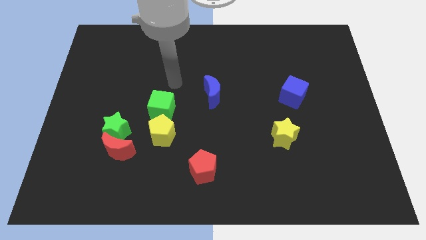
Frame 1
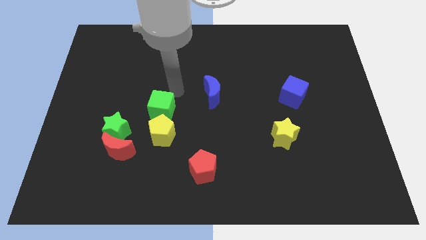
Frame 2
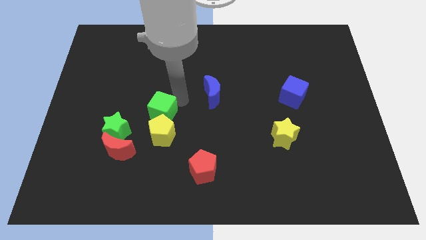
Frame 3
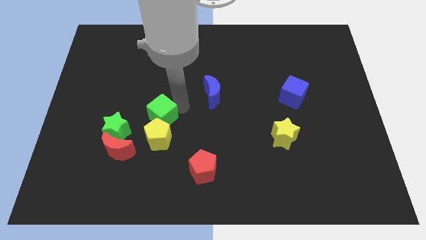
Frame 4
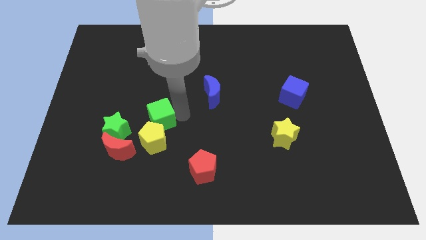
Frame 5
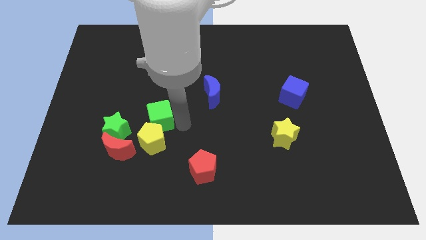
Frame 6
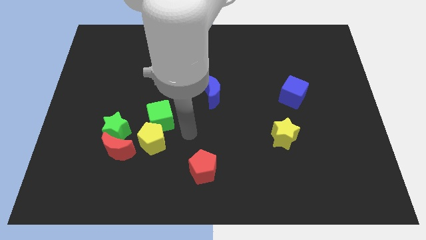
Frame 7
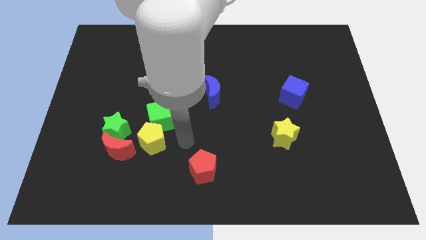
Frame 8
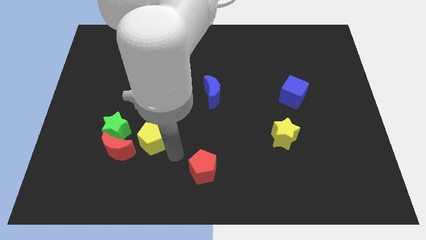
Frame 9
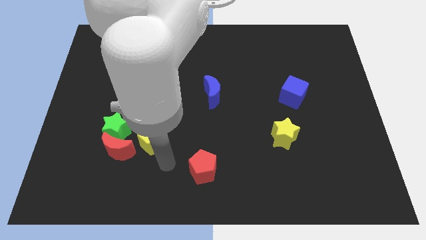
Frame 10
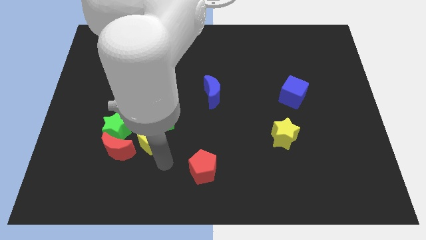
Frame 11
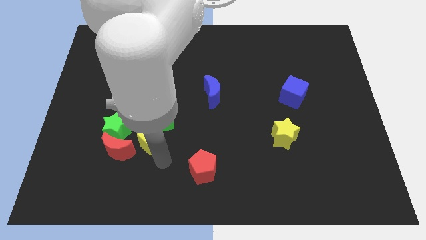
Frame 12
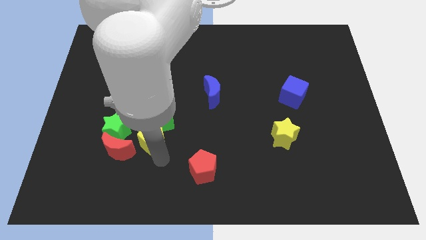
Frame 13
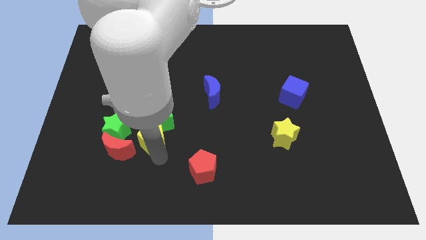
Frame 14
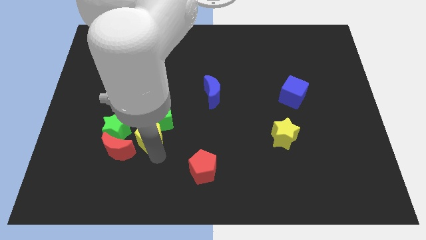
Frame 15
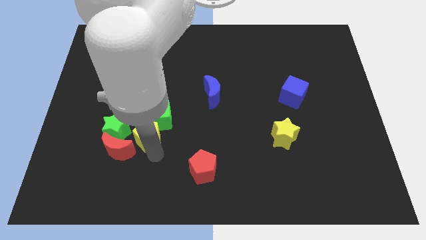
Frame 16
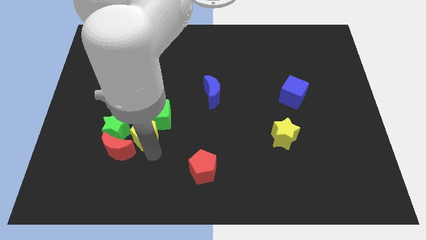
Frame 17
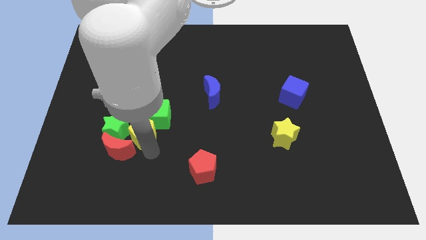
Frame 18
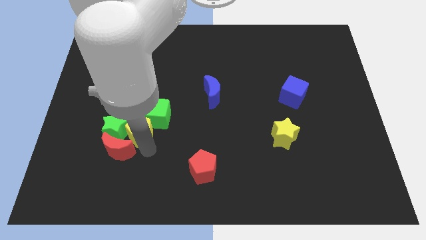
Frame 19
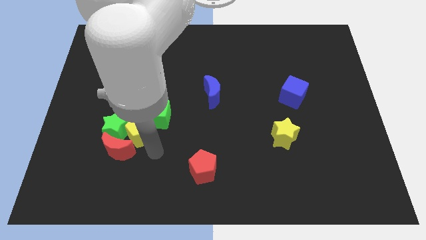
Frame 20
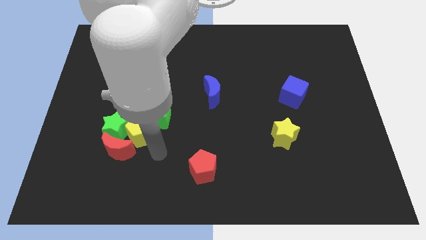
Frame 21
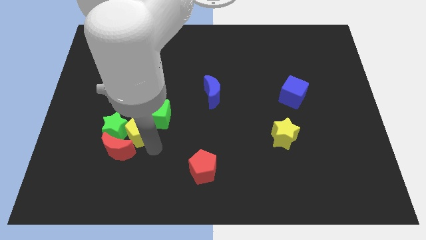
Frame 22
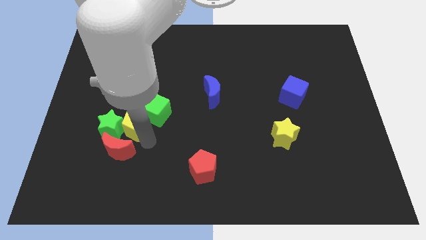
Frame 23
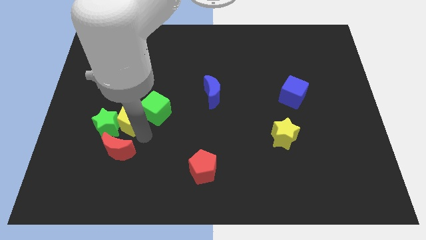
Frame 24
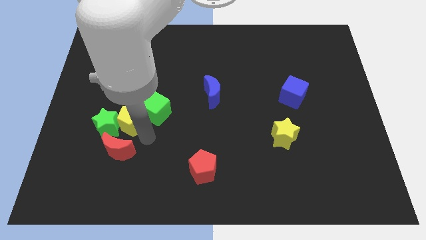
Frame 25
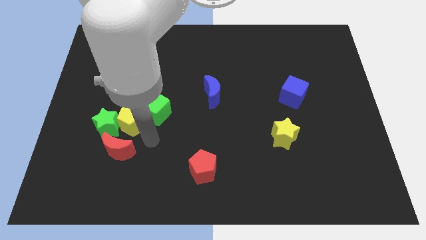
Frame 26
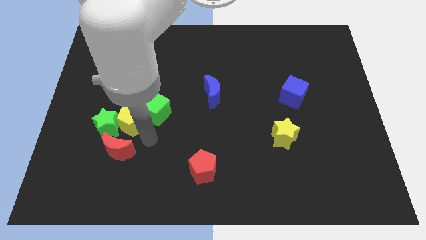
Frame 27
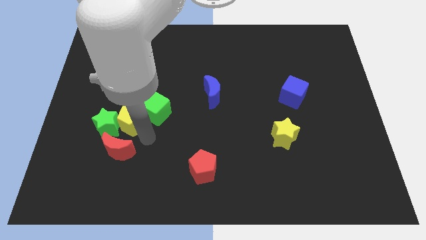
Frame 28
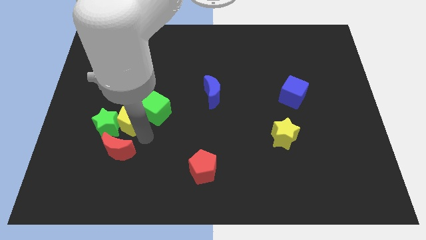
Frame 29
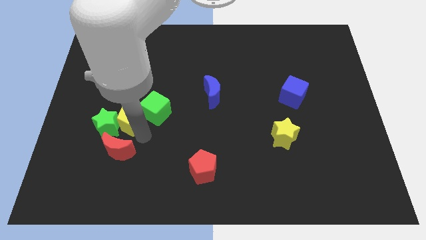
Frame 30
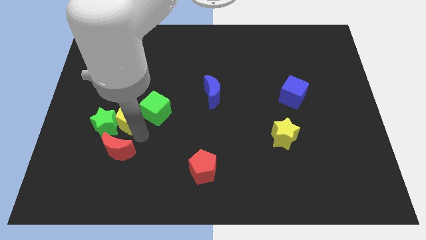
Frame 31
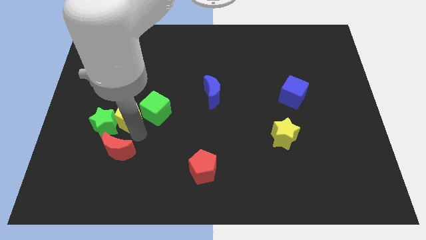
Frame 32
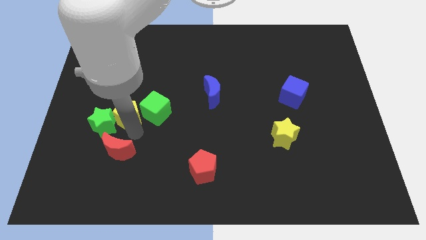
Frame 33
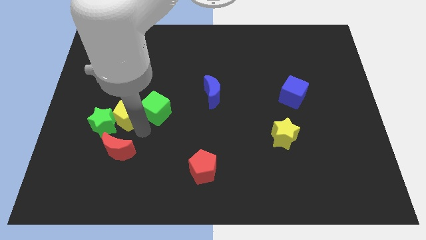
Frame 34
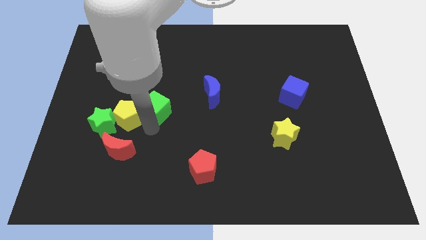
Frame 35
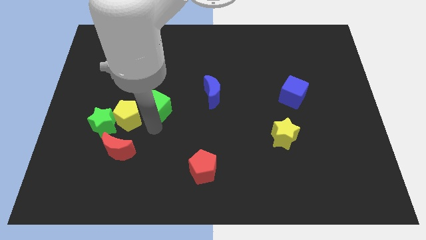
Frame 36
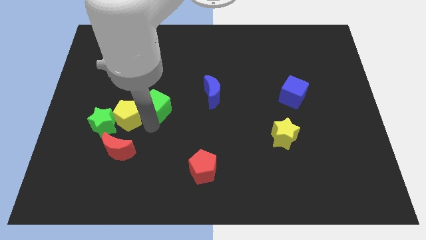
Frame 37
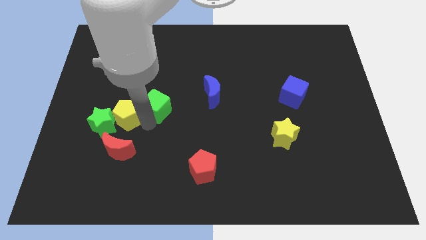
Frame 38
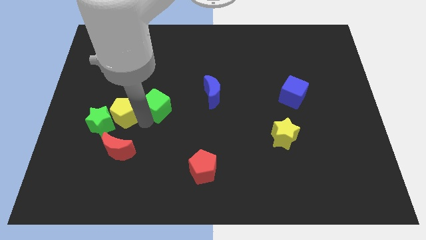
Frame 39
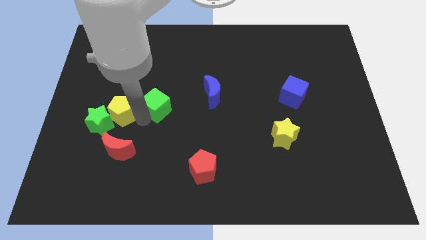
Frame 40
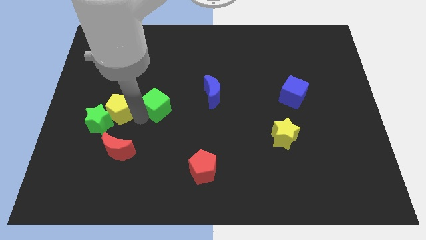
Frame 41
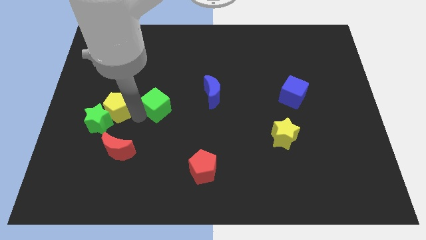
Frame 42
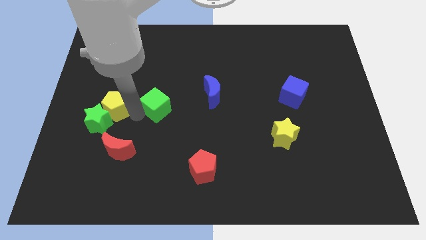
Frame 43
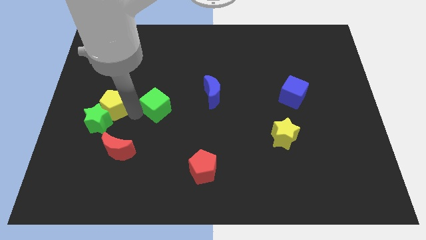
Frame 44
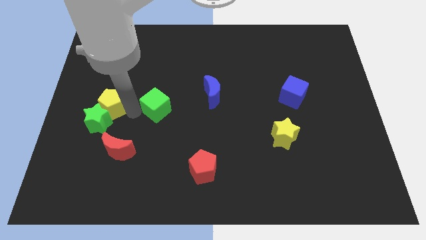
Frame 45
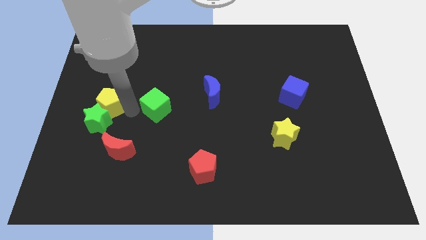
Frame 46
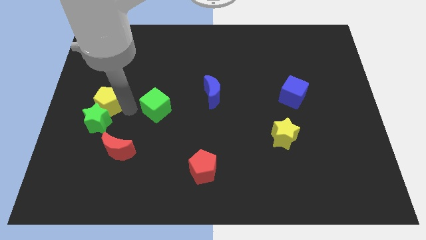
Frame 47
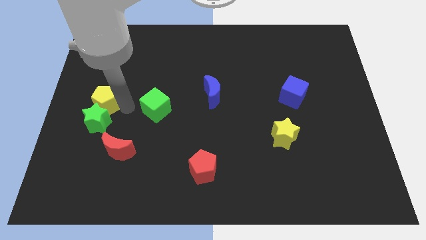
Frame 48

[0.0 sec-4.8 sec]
move the yellow pentagon to the center left

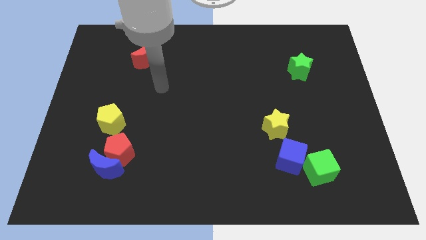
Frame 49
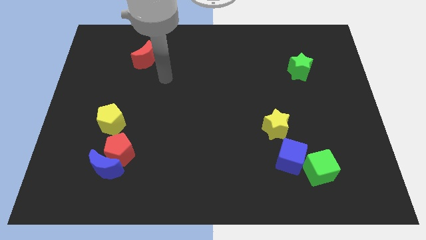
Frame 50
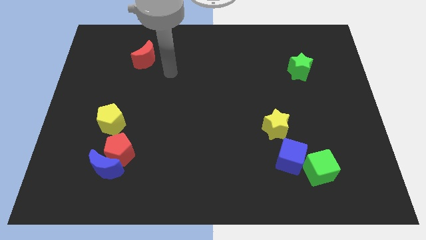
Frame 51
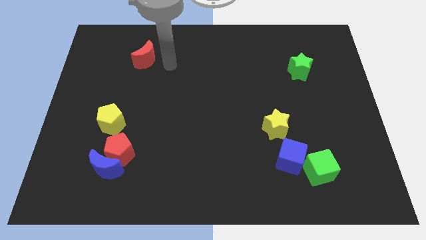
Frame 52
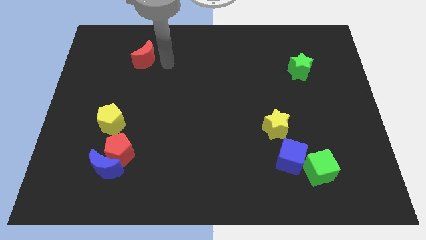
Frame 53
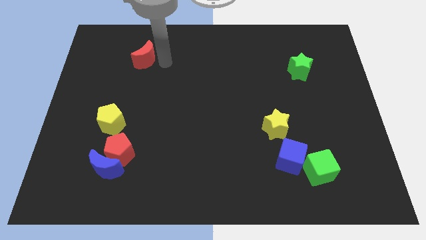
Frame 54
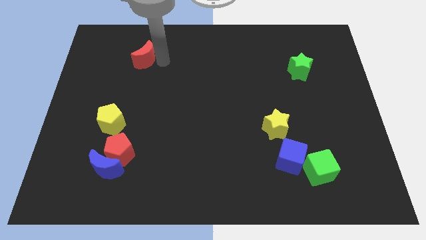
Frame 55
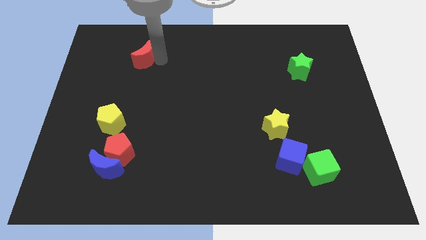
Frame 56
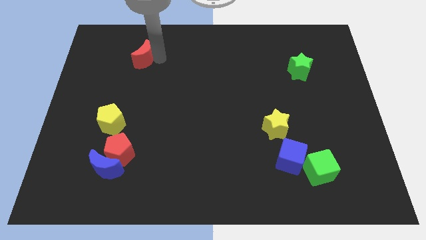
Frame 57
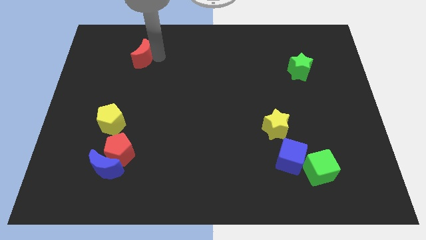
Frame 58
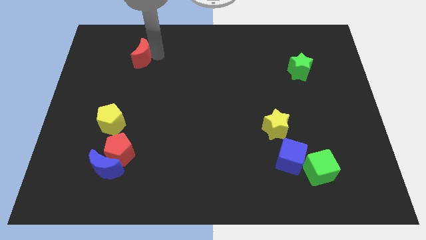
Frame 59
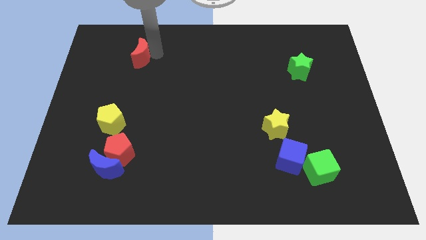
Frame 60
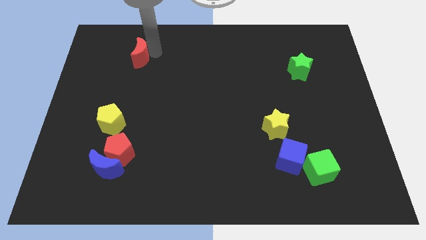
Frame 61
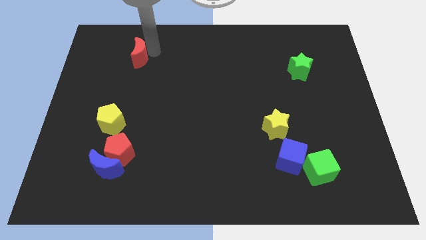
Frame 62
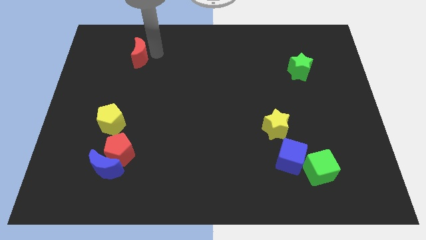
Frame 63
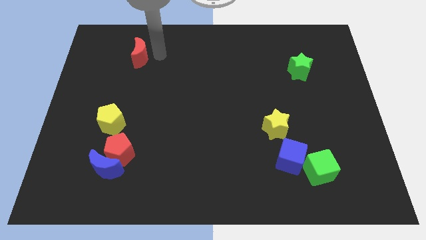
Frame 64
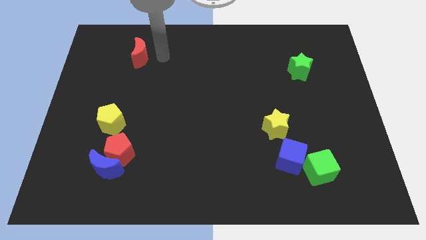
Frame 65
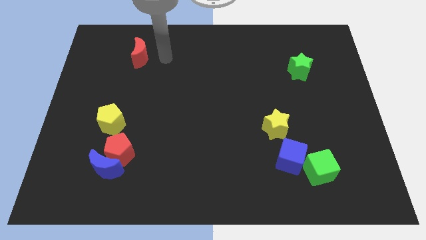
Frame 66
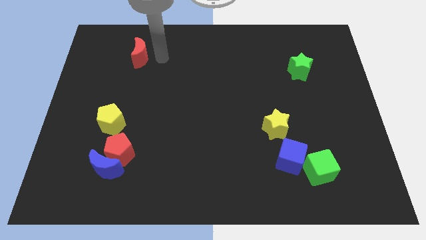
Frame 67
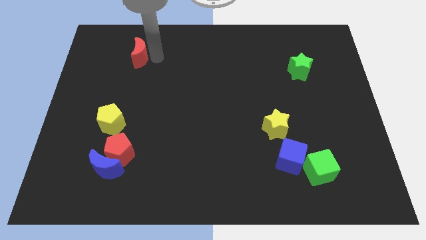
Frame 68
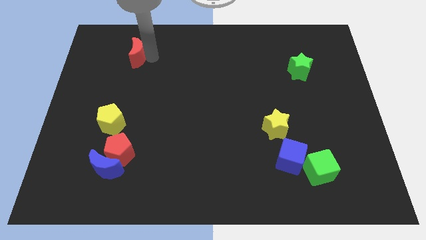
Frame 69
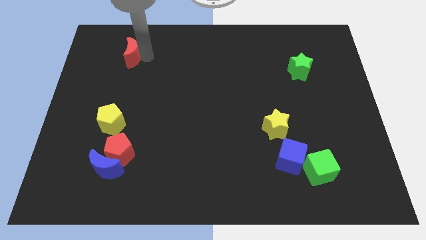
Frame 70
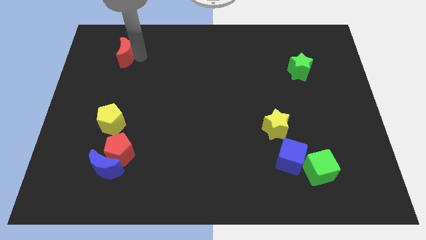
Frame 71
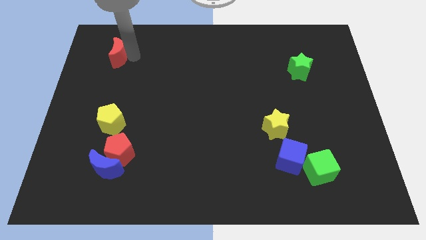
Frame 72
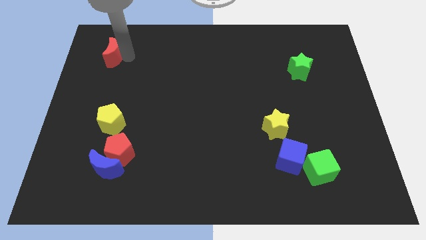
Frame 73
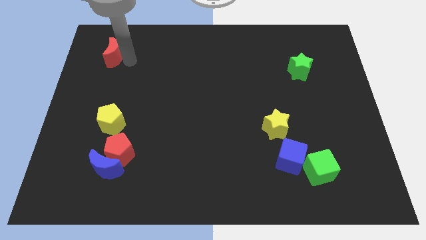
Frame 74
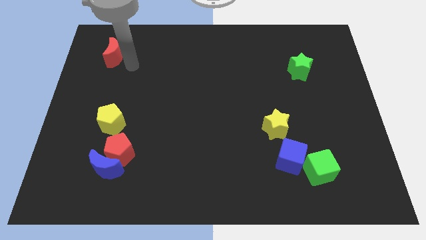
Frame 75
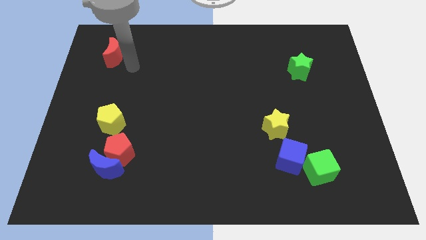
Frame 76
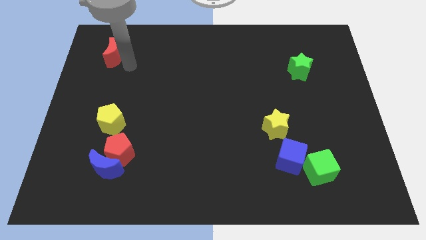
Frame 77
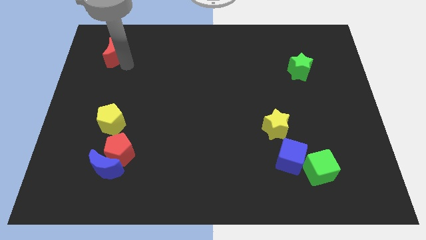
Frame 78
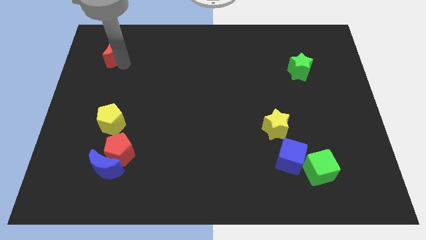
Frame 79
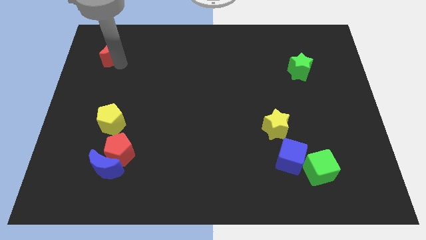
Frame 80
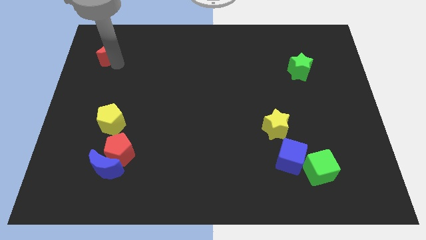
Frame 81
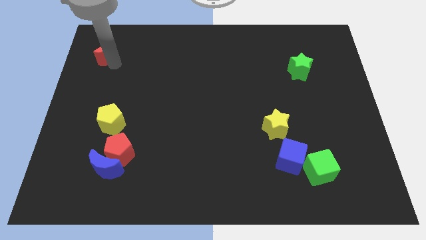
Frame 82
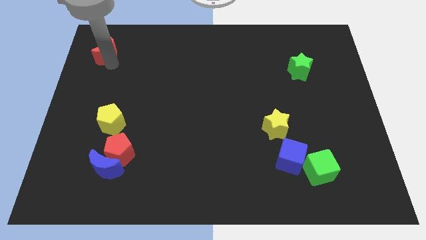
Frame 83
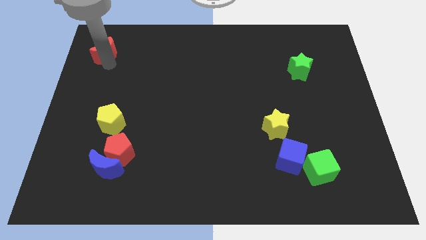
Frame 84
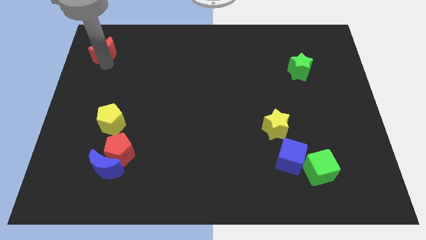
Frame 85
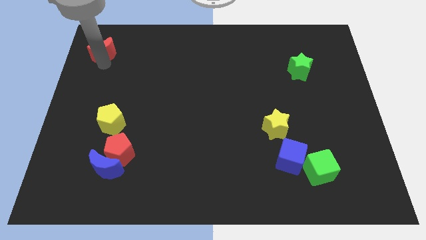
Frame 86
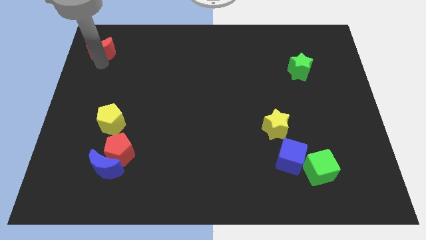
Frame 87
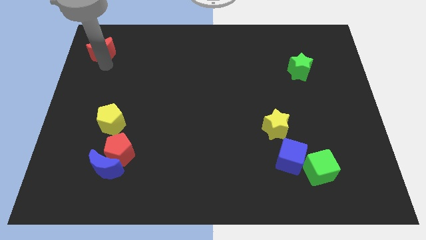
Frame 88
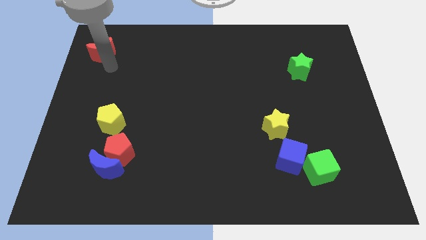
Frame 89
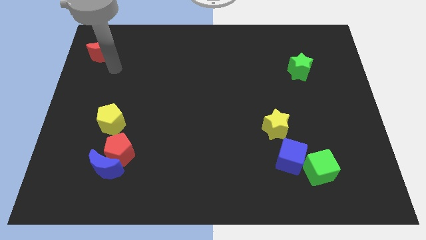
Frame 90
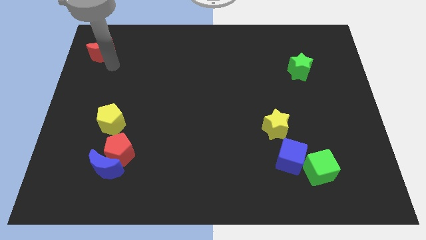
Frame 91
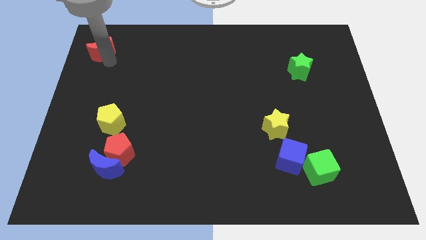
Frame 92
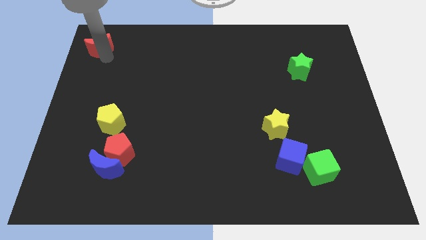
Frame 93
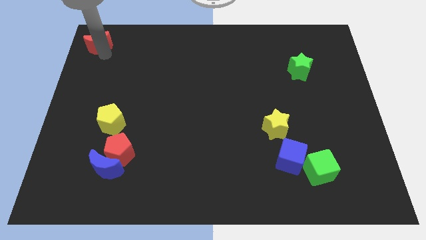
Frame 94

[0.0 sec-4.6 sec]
push the red moon to the top left corner
